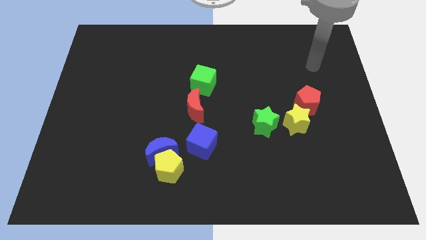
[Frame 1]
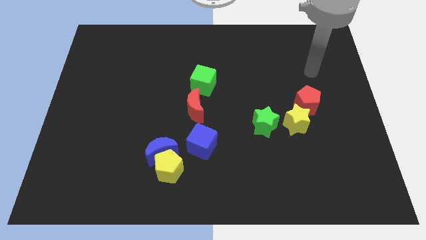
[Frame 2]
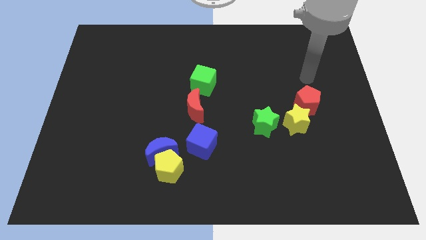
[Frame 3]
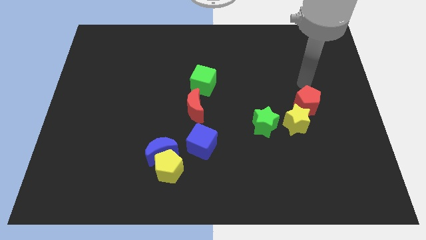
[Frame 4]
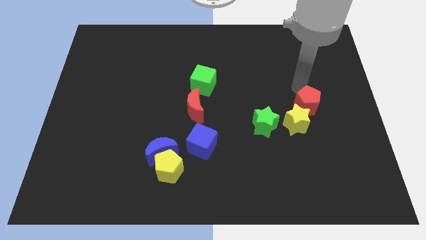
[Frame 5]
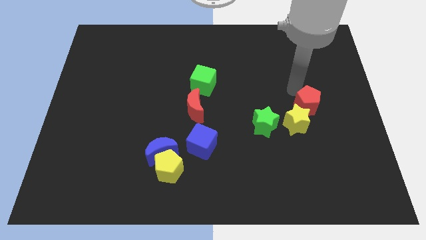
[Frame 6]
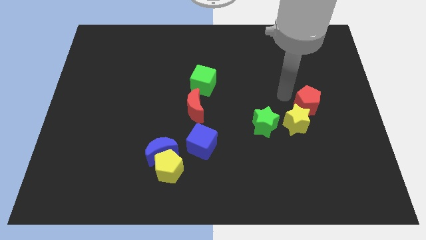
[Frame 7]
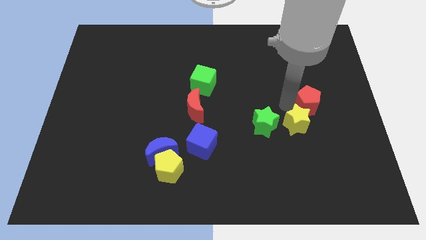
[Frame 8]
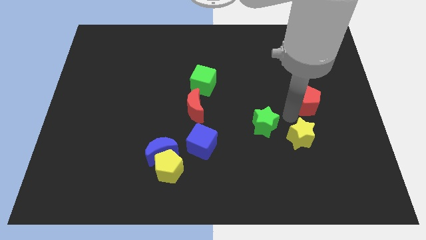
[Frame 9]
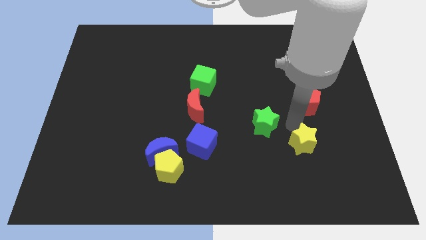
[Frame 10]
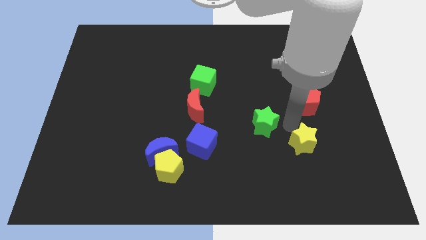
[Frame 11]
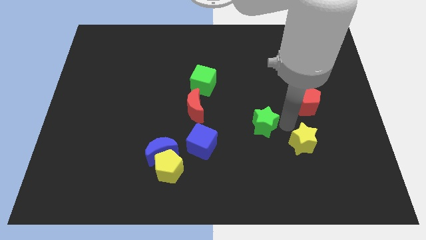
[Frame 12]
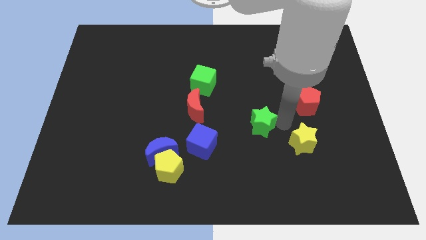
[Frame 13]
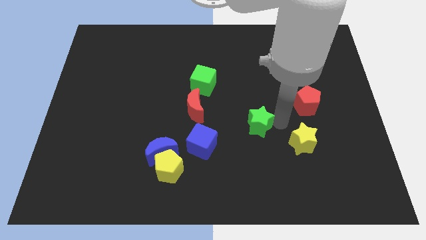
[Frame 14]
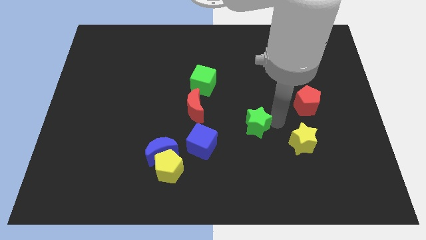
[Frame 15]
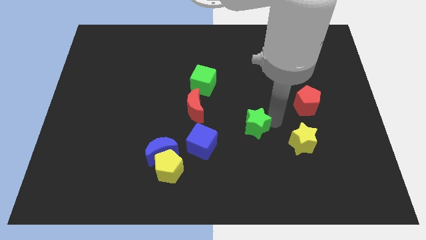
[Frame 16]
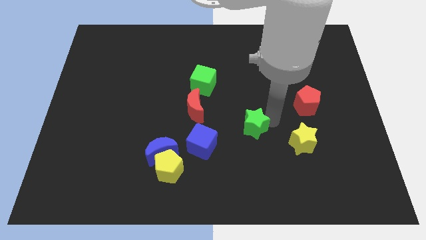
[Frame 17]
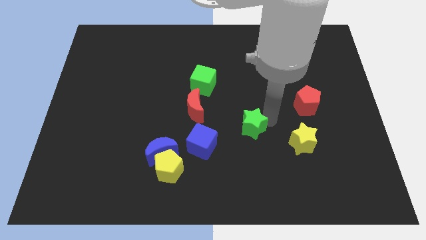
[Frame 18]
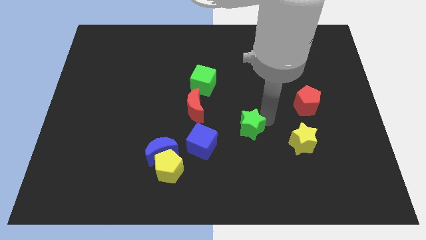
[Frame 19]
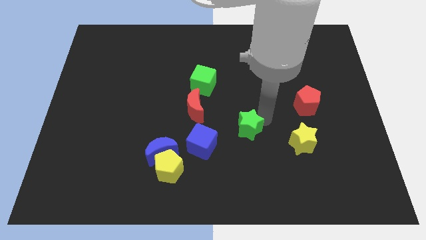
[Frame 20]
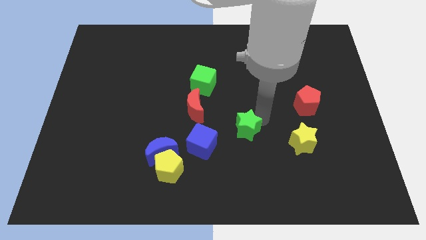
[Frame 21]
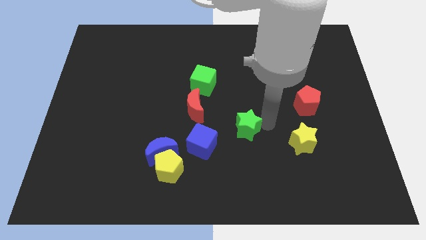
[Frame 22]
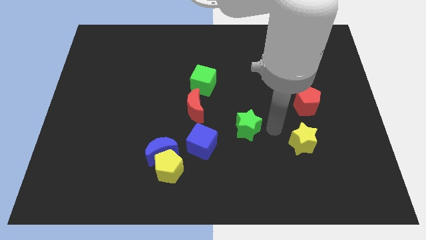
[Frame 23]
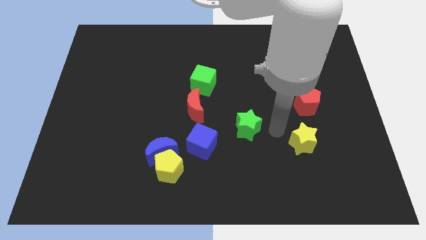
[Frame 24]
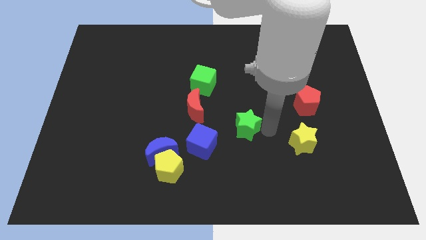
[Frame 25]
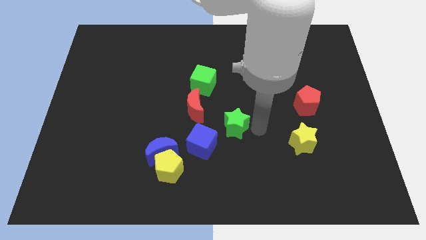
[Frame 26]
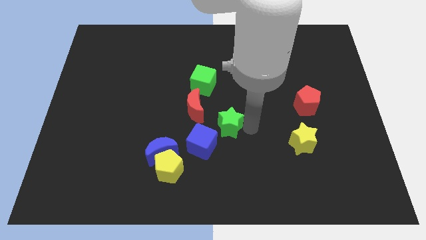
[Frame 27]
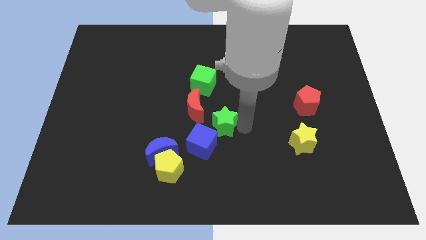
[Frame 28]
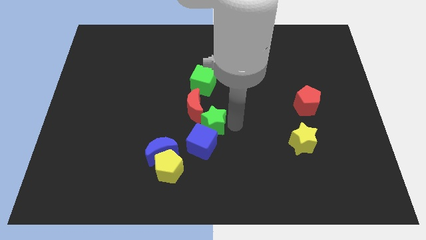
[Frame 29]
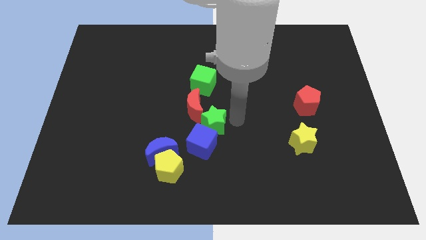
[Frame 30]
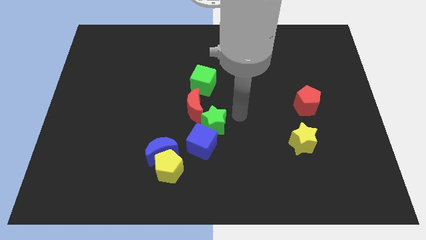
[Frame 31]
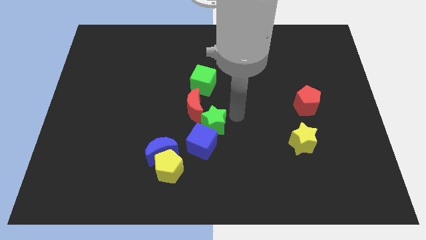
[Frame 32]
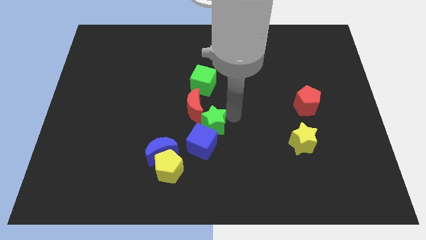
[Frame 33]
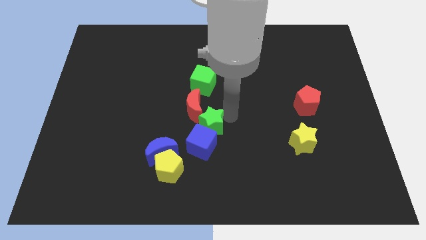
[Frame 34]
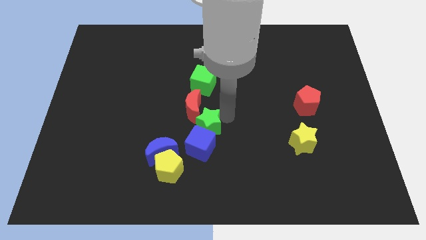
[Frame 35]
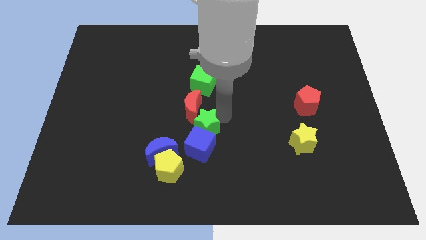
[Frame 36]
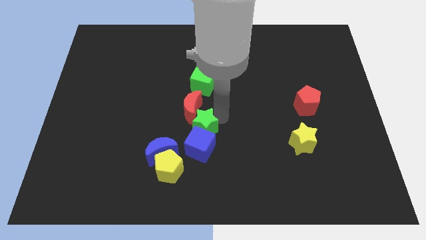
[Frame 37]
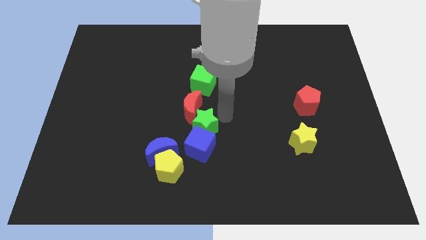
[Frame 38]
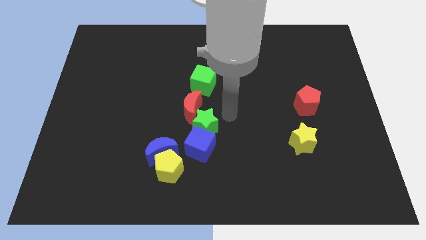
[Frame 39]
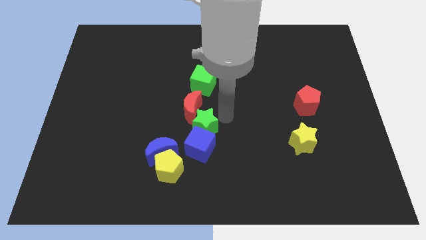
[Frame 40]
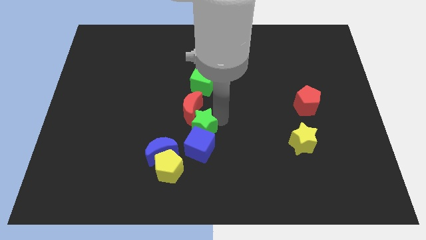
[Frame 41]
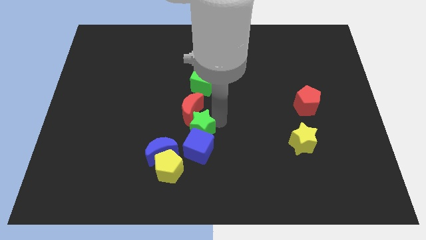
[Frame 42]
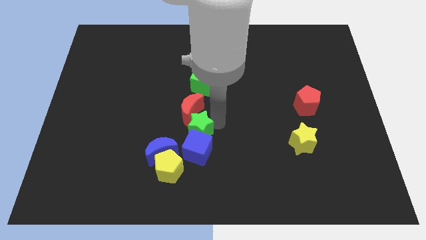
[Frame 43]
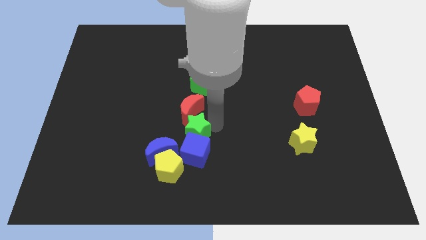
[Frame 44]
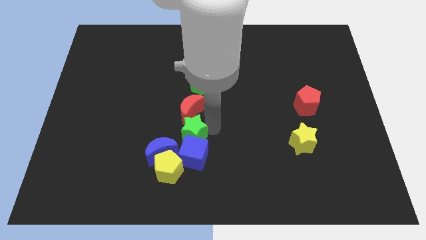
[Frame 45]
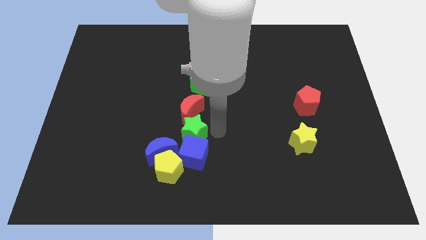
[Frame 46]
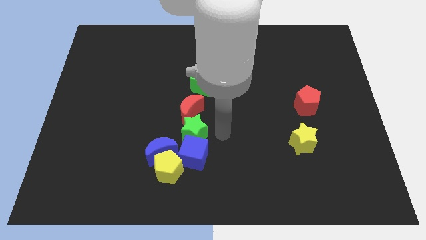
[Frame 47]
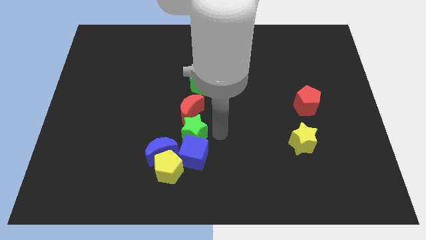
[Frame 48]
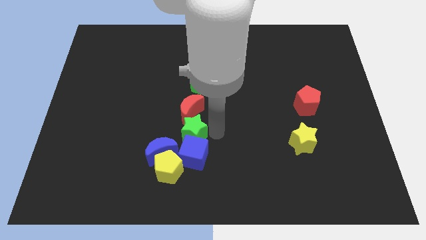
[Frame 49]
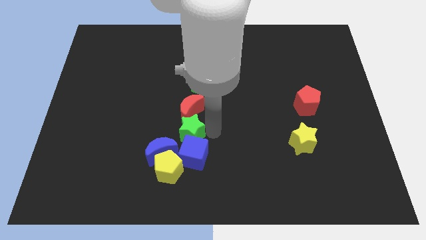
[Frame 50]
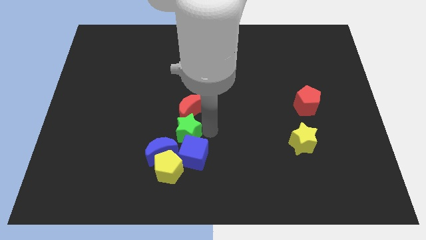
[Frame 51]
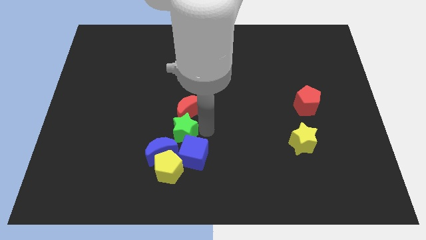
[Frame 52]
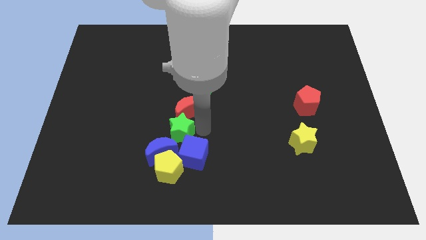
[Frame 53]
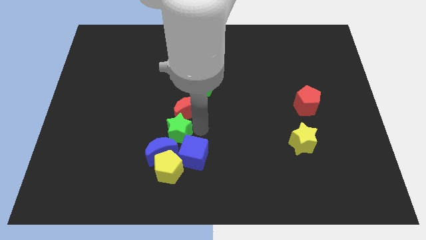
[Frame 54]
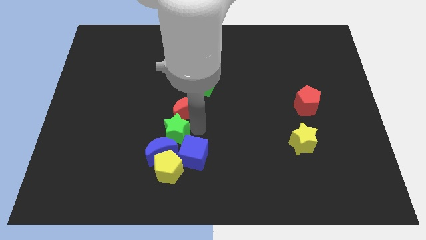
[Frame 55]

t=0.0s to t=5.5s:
slide the green star to the left

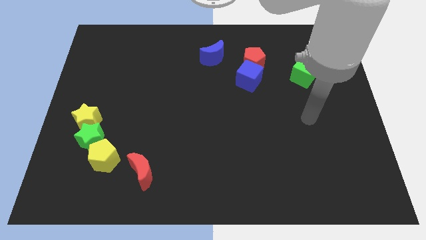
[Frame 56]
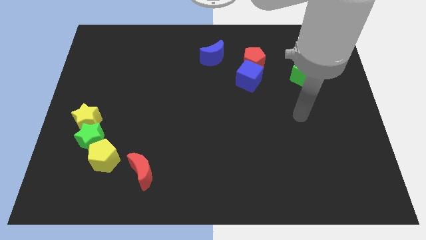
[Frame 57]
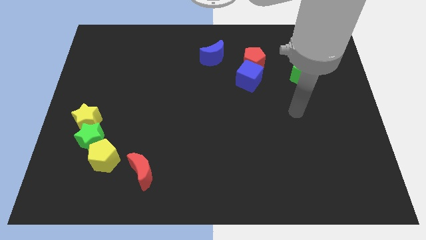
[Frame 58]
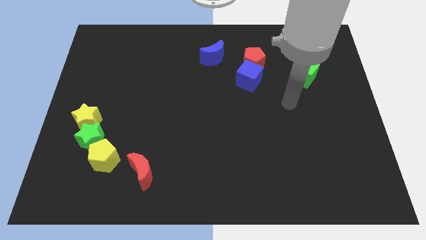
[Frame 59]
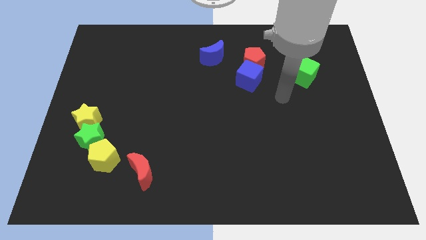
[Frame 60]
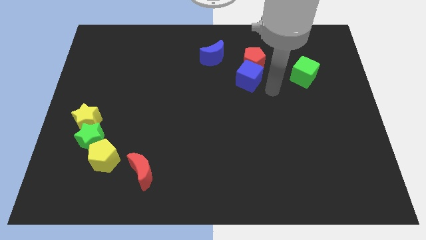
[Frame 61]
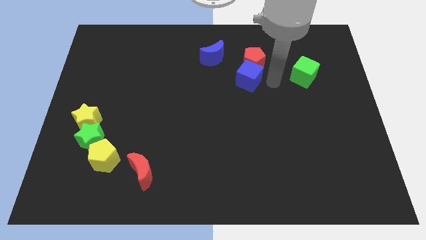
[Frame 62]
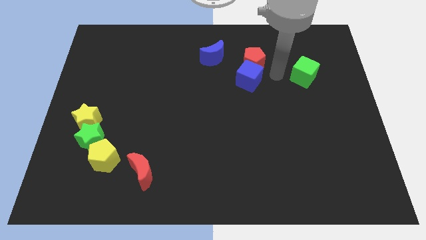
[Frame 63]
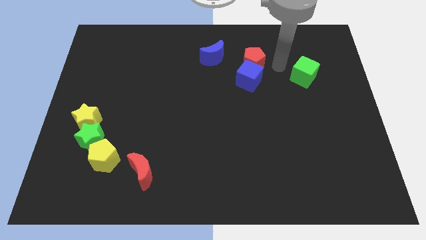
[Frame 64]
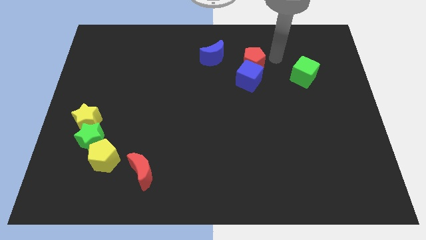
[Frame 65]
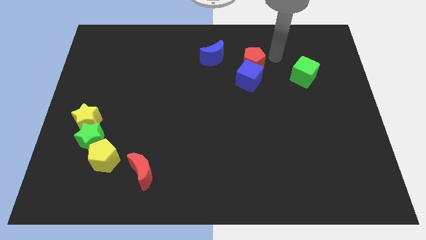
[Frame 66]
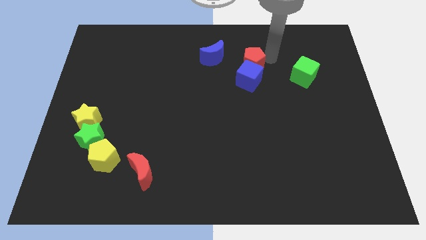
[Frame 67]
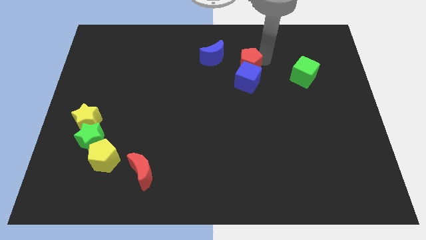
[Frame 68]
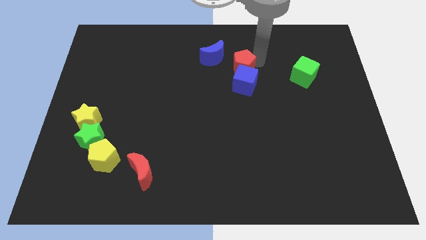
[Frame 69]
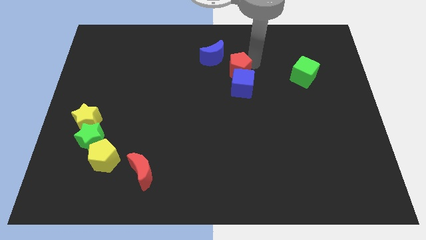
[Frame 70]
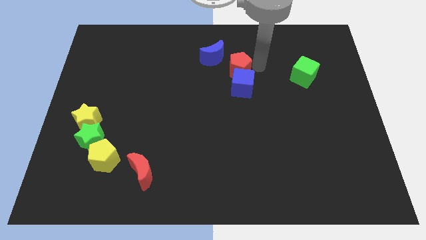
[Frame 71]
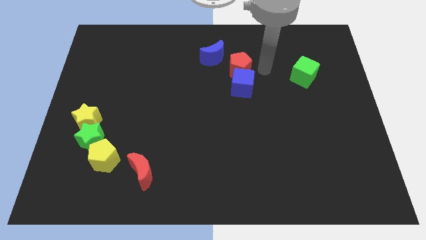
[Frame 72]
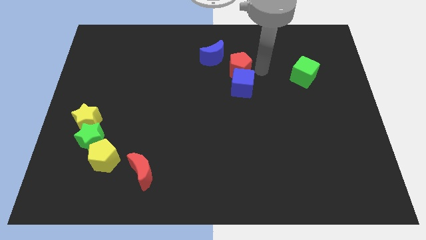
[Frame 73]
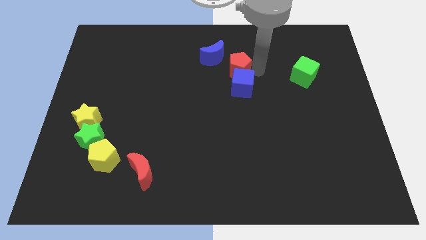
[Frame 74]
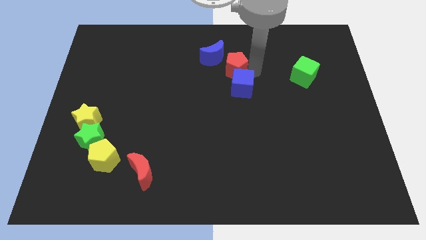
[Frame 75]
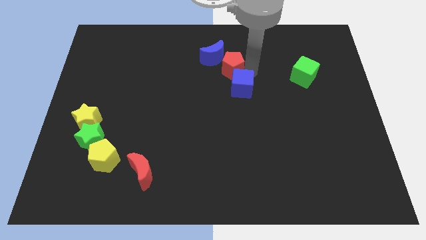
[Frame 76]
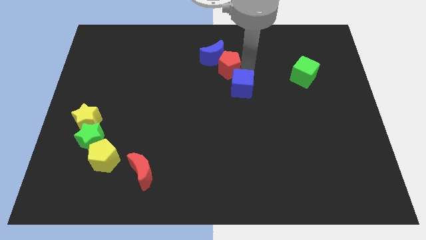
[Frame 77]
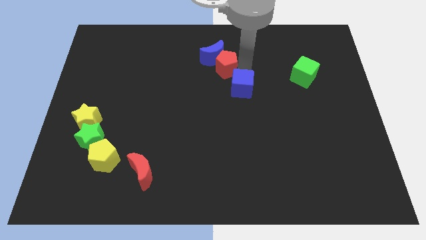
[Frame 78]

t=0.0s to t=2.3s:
move the red pentagon a bit left

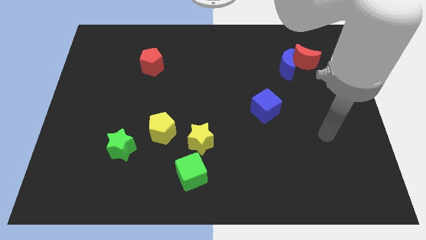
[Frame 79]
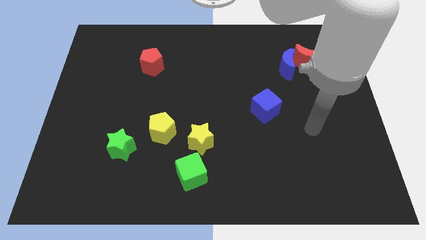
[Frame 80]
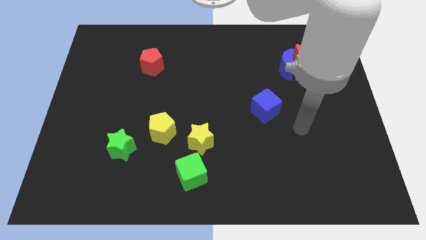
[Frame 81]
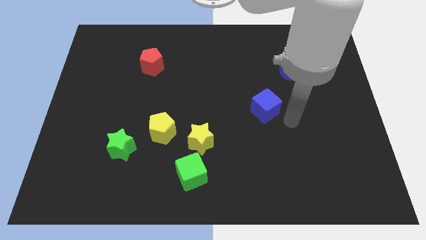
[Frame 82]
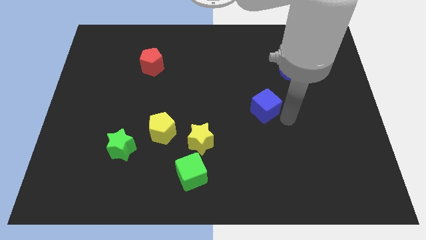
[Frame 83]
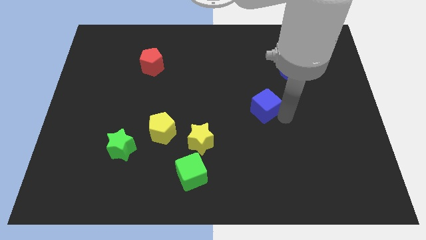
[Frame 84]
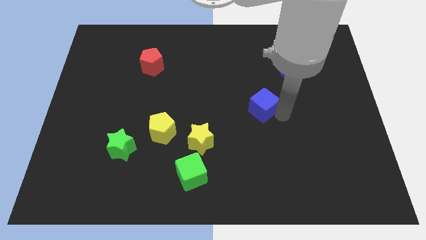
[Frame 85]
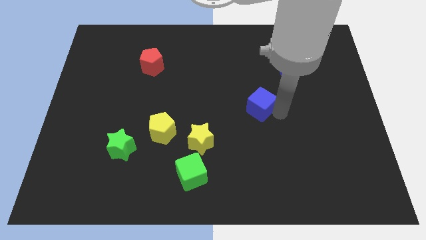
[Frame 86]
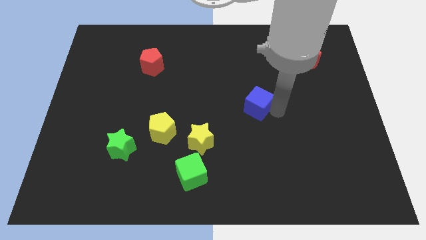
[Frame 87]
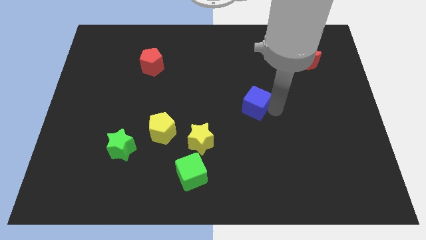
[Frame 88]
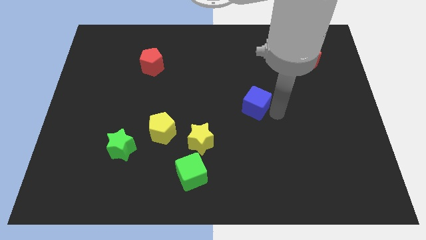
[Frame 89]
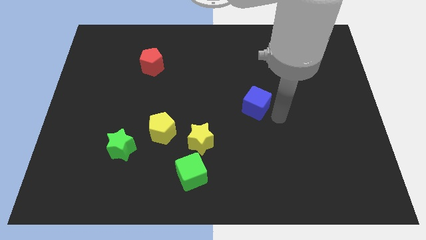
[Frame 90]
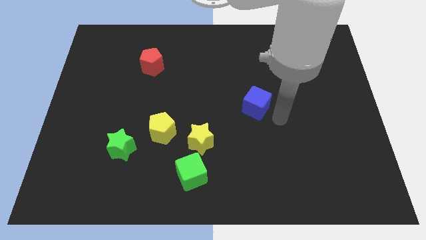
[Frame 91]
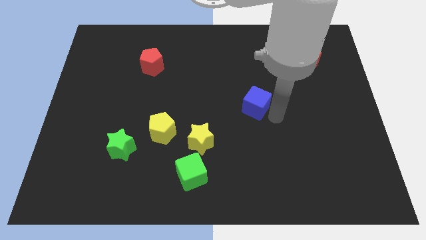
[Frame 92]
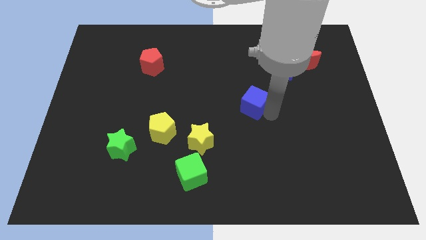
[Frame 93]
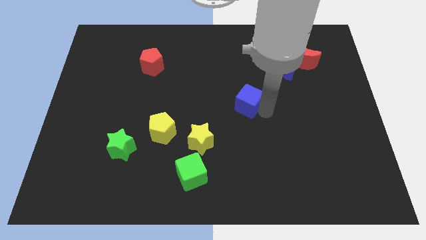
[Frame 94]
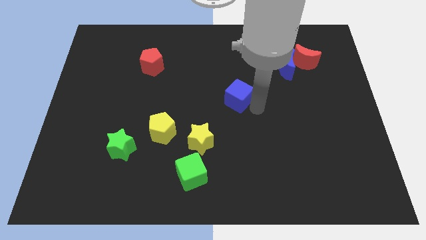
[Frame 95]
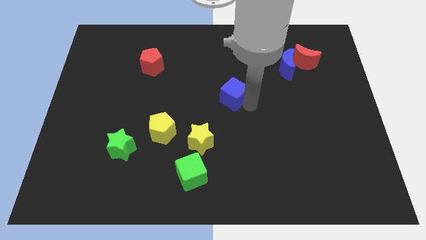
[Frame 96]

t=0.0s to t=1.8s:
slide the blue cube up and left somewhat
